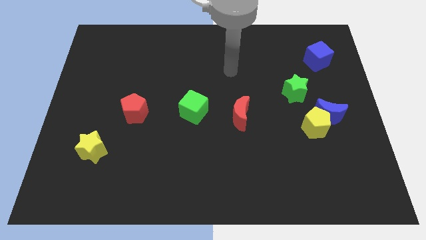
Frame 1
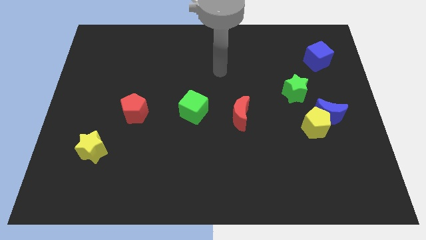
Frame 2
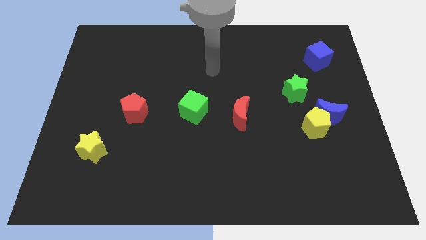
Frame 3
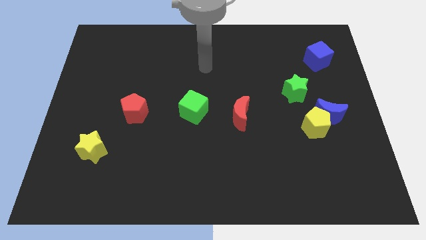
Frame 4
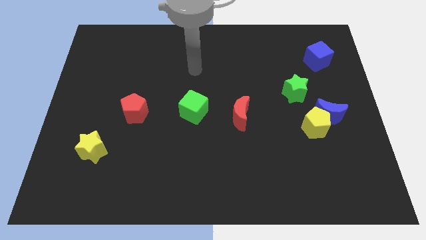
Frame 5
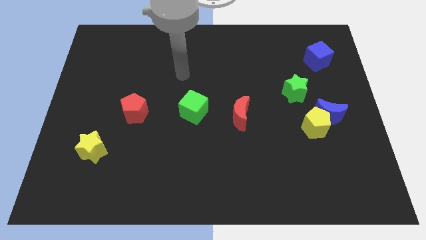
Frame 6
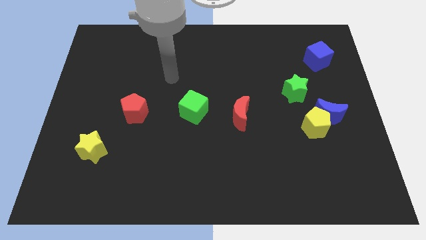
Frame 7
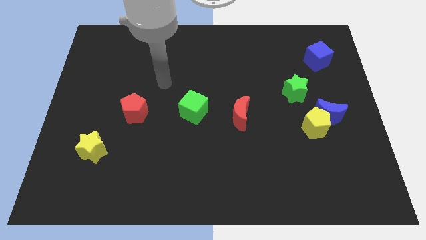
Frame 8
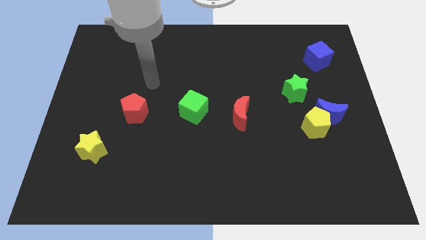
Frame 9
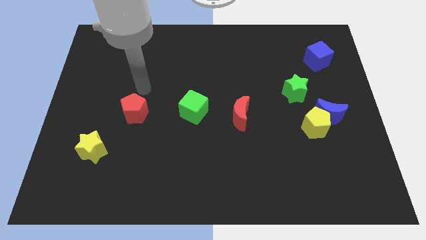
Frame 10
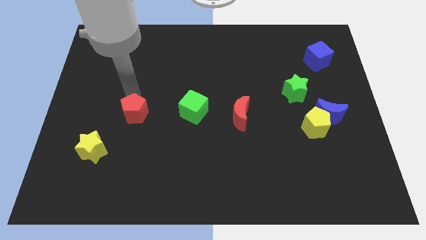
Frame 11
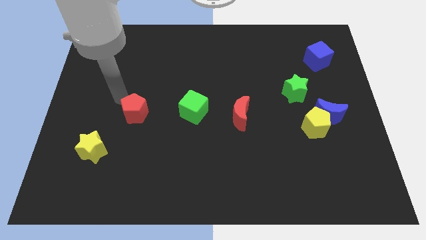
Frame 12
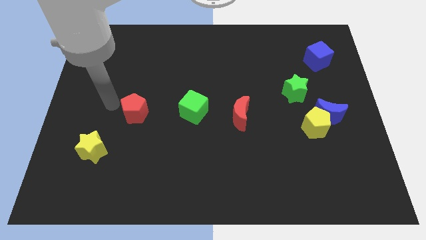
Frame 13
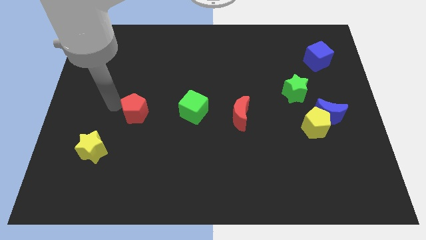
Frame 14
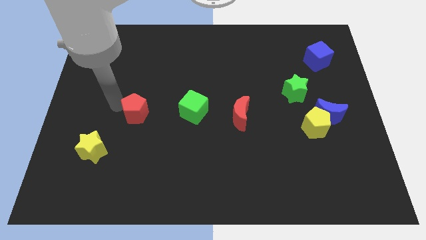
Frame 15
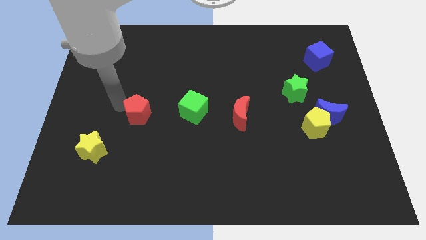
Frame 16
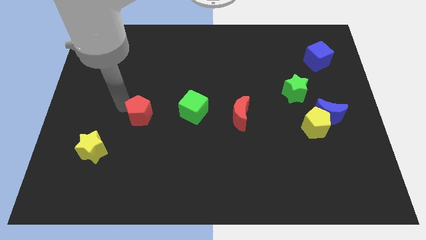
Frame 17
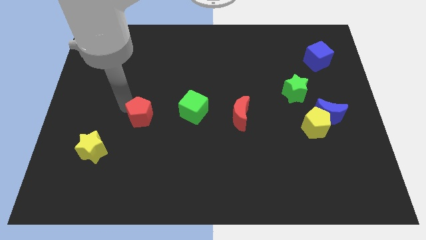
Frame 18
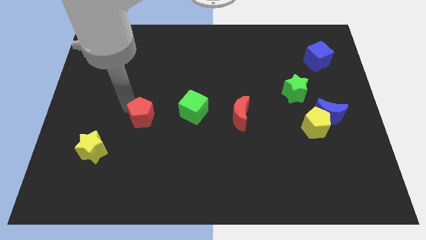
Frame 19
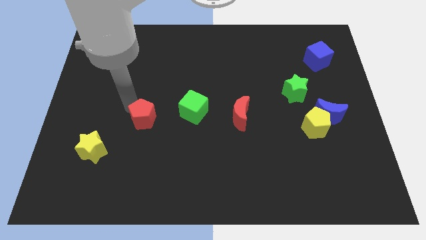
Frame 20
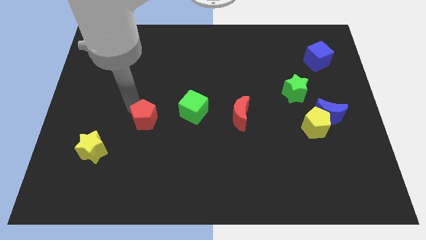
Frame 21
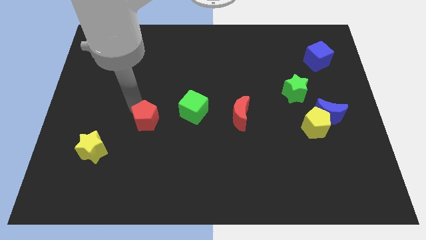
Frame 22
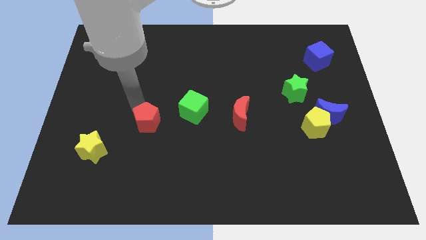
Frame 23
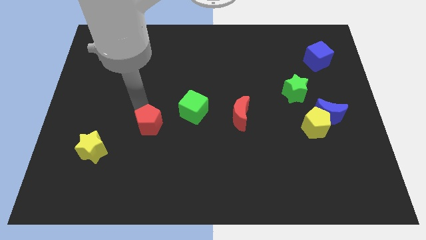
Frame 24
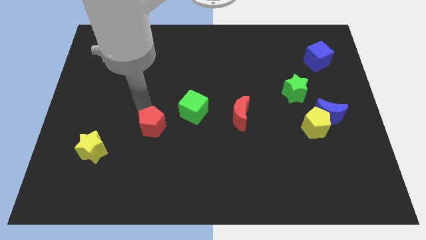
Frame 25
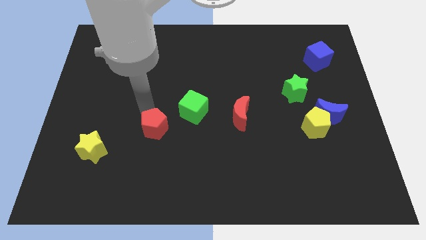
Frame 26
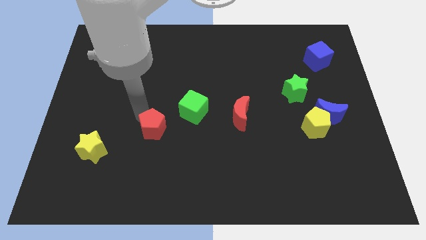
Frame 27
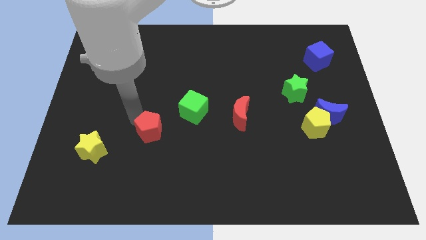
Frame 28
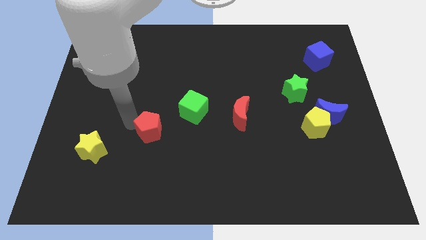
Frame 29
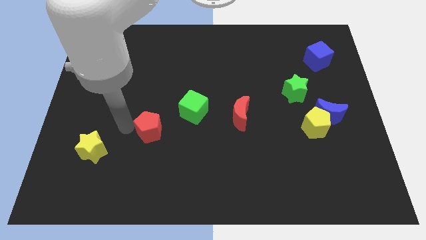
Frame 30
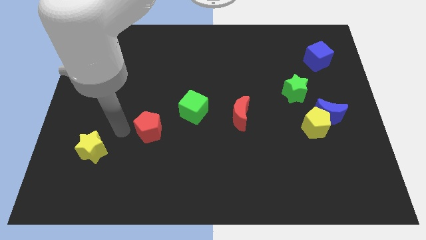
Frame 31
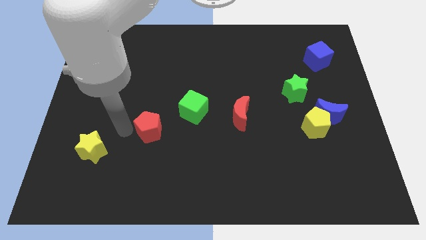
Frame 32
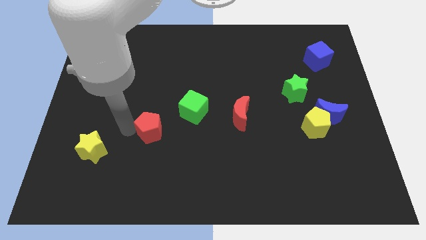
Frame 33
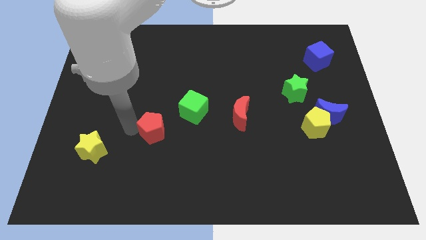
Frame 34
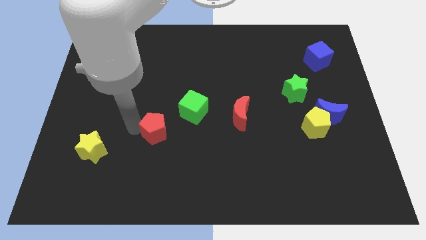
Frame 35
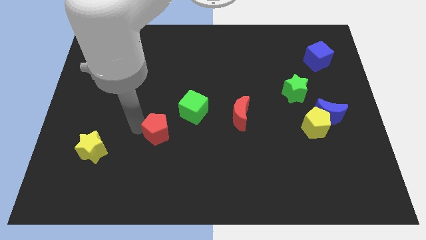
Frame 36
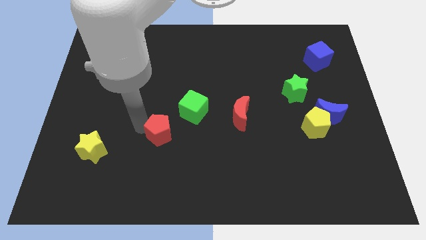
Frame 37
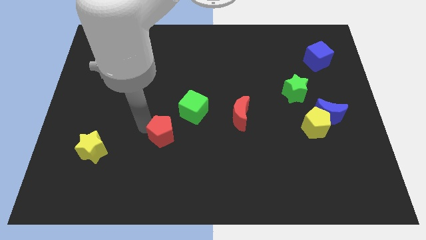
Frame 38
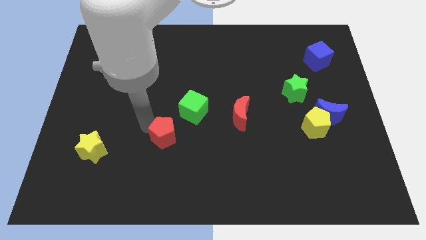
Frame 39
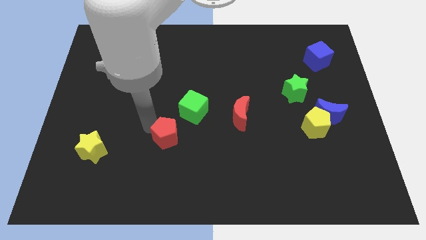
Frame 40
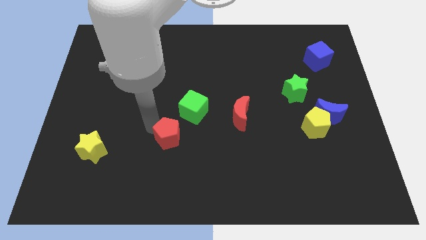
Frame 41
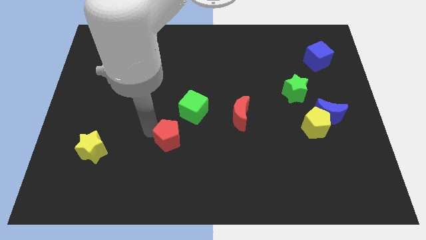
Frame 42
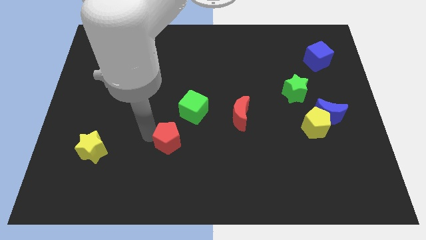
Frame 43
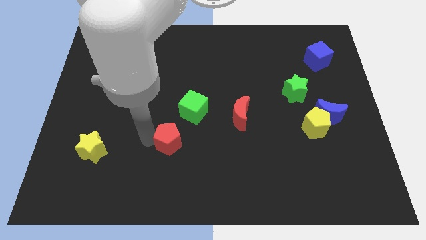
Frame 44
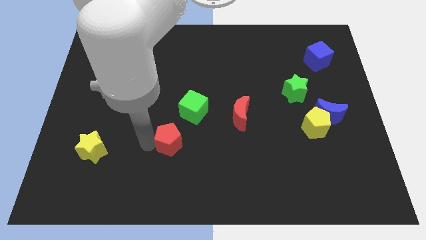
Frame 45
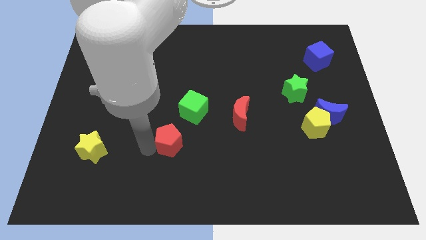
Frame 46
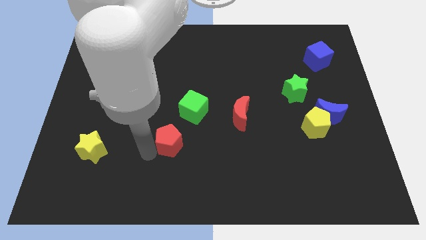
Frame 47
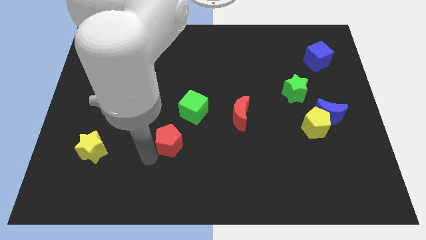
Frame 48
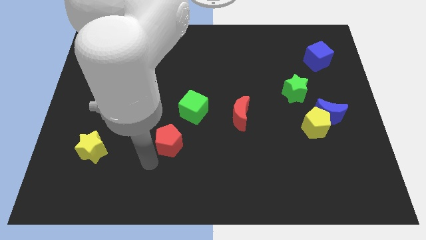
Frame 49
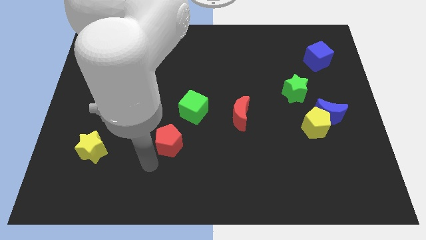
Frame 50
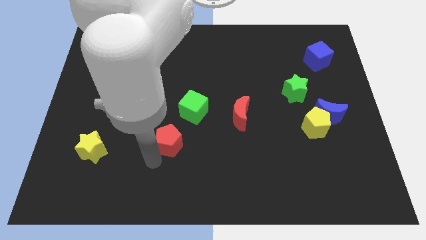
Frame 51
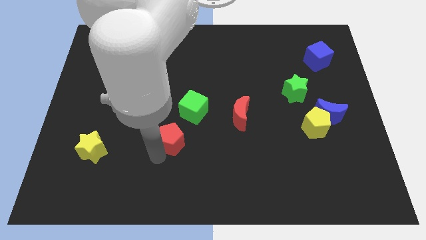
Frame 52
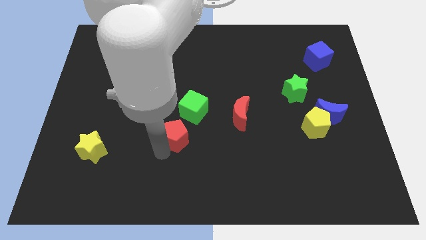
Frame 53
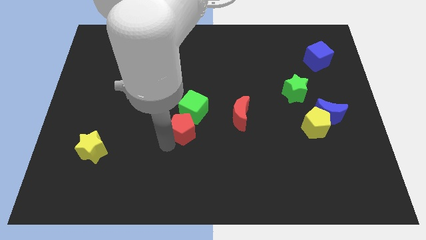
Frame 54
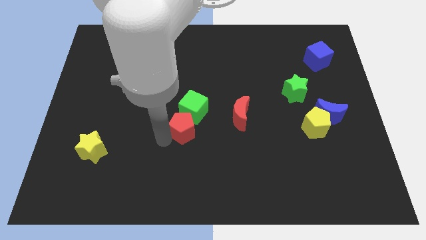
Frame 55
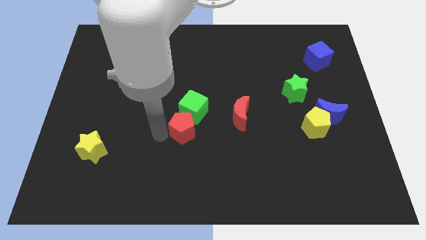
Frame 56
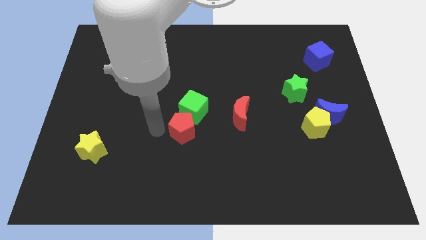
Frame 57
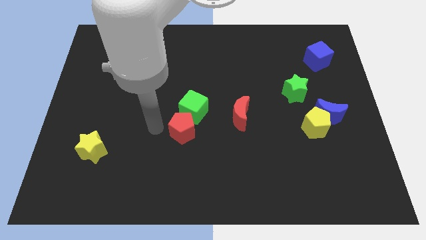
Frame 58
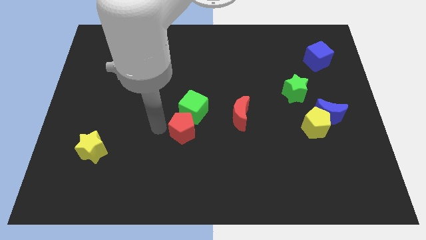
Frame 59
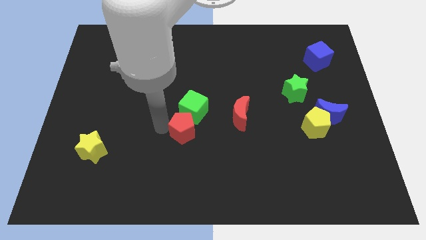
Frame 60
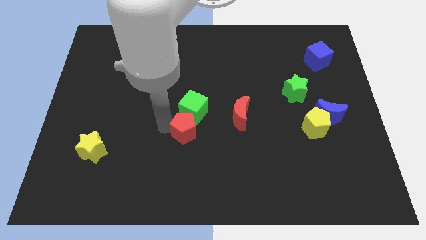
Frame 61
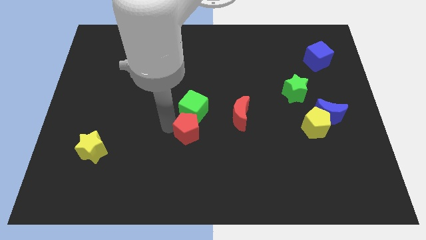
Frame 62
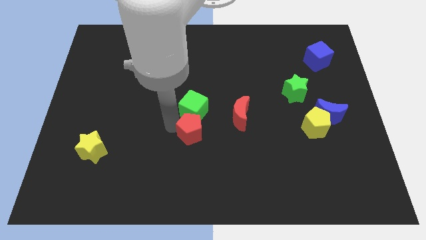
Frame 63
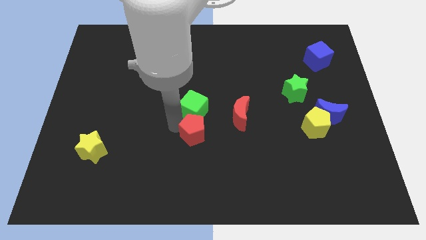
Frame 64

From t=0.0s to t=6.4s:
move the red pentagon diagonally down and to the left of the red moon

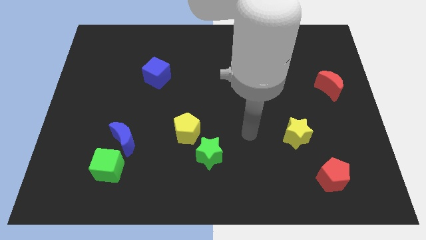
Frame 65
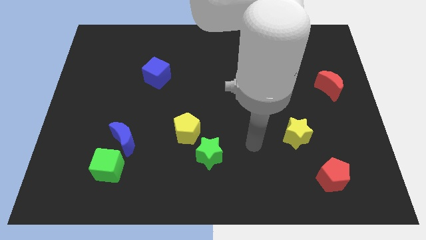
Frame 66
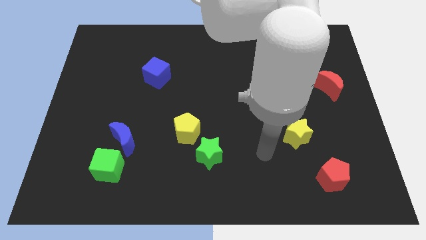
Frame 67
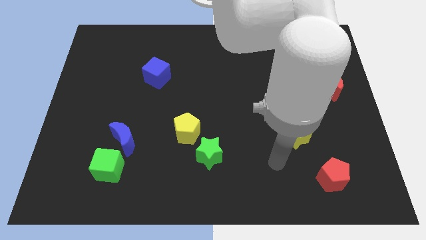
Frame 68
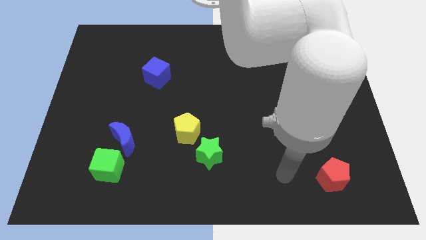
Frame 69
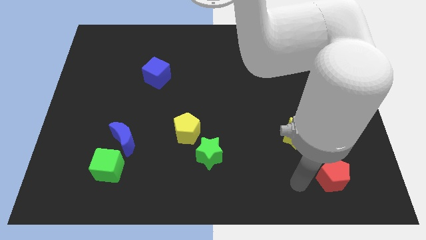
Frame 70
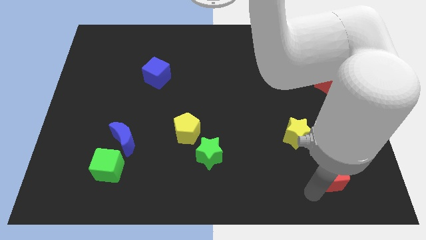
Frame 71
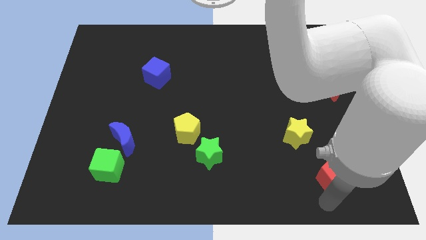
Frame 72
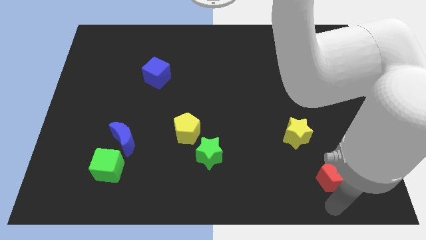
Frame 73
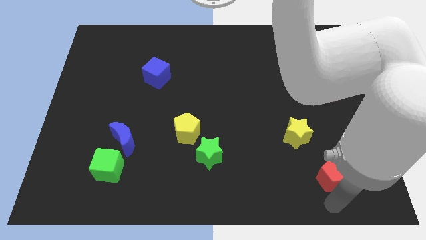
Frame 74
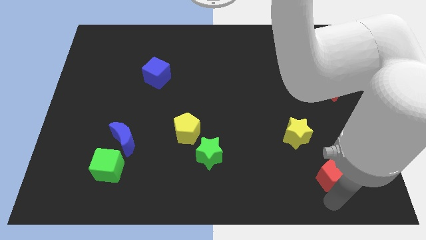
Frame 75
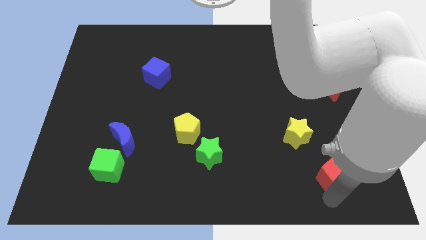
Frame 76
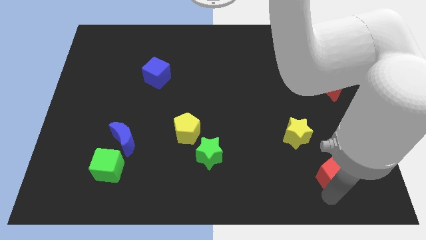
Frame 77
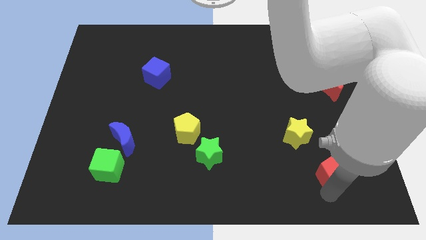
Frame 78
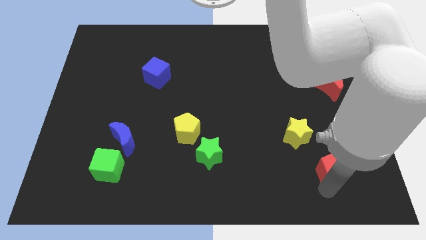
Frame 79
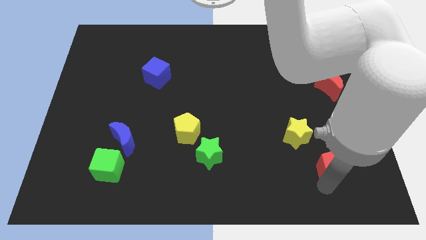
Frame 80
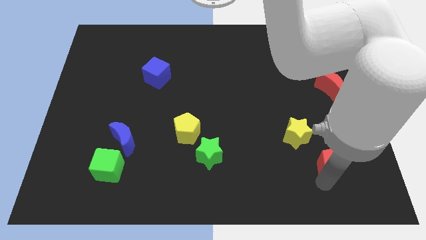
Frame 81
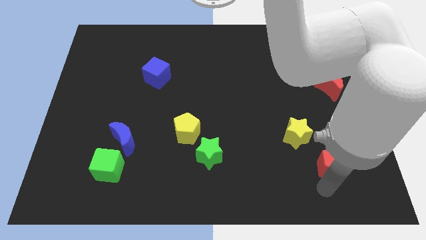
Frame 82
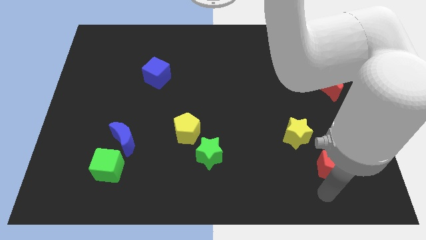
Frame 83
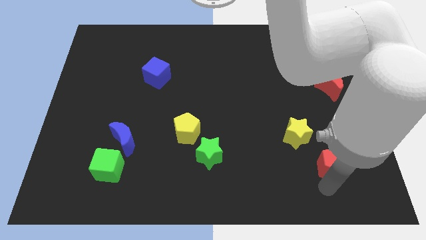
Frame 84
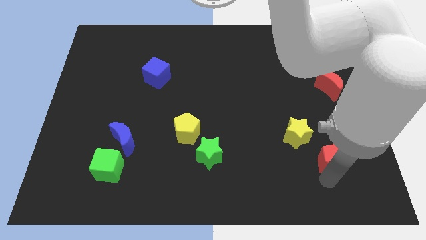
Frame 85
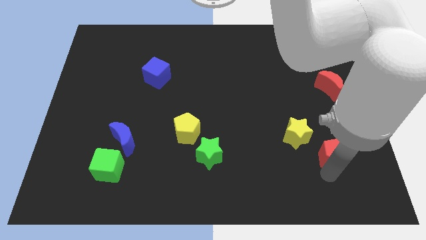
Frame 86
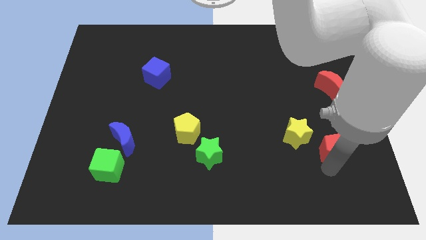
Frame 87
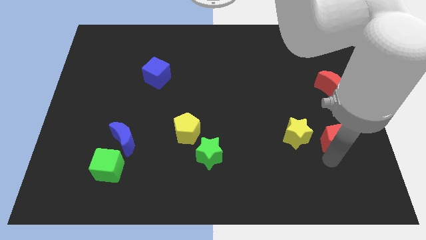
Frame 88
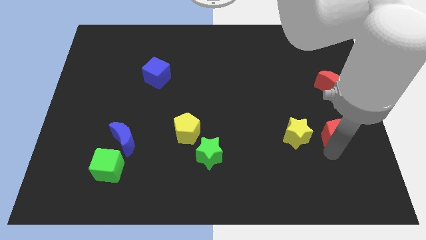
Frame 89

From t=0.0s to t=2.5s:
slide the red pentagon to the bottom side of the red moon
